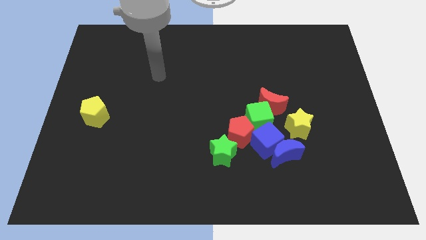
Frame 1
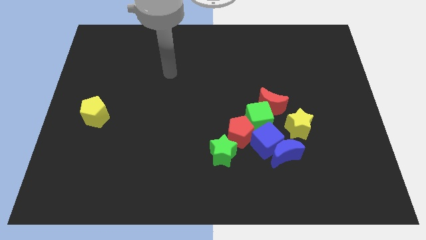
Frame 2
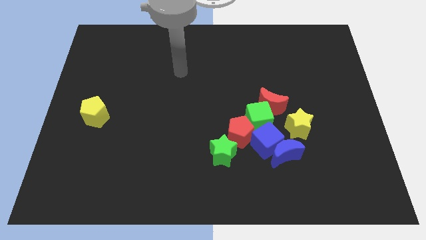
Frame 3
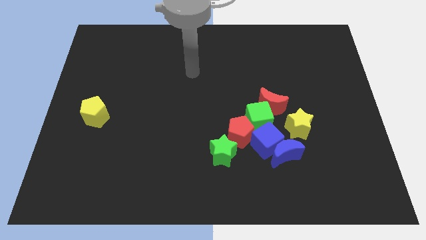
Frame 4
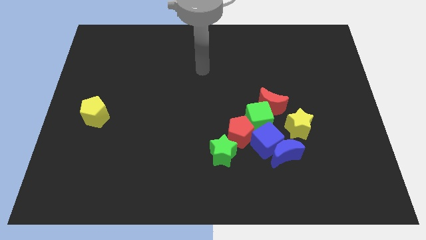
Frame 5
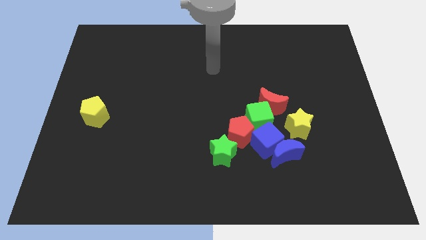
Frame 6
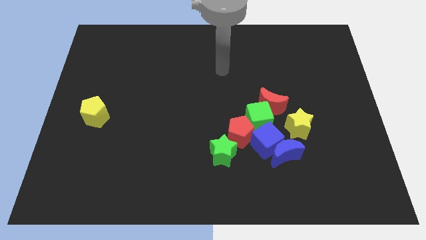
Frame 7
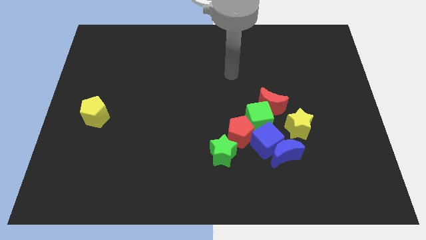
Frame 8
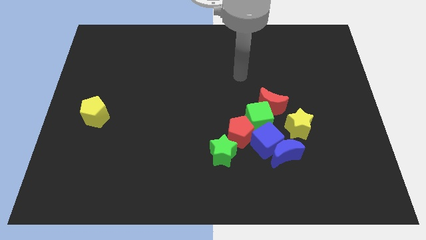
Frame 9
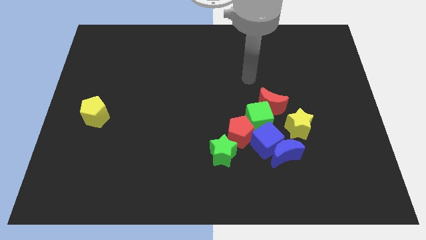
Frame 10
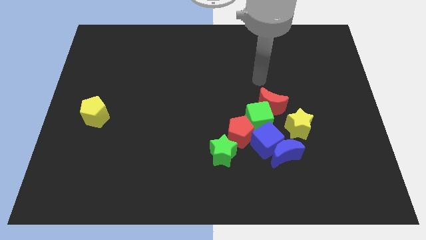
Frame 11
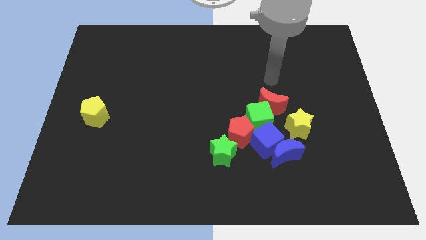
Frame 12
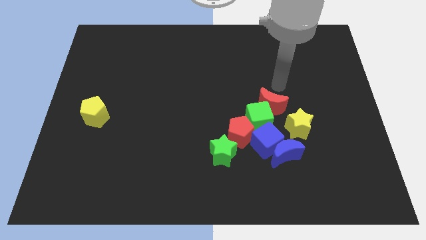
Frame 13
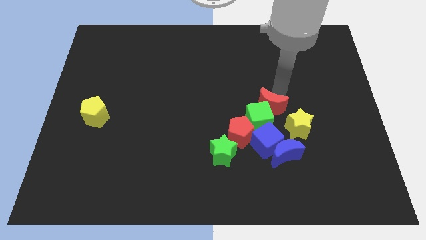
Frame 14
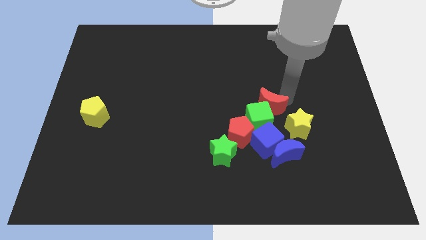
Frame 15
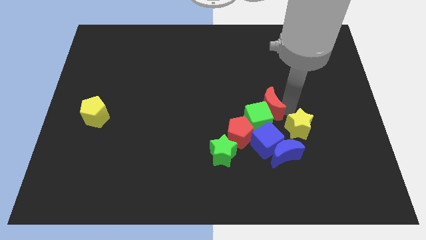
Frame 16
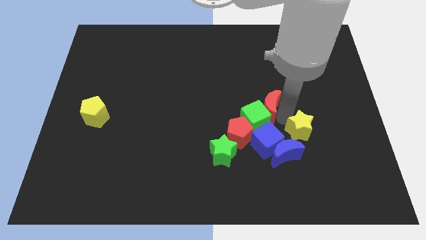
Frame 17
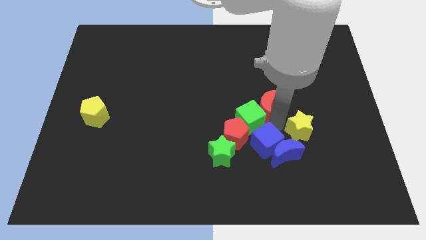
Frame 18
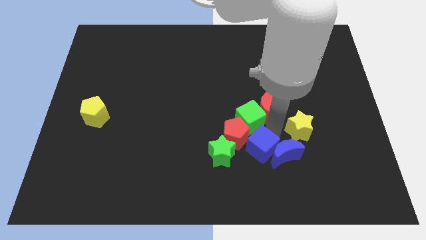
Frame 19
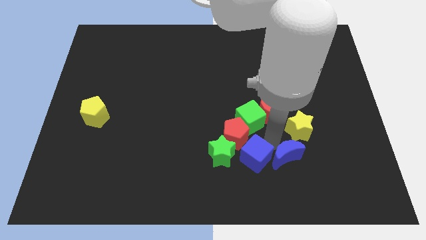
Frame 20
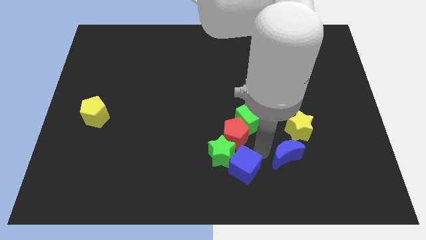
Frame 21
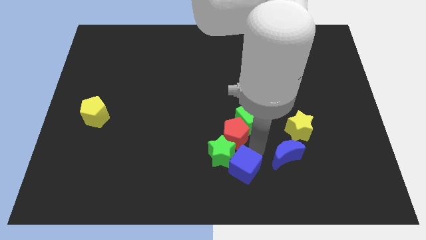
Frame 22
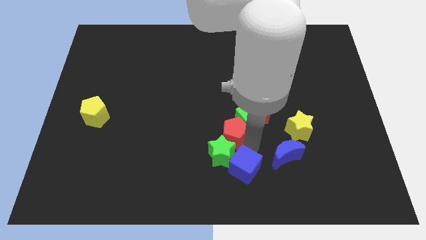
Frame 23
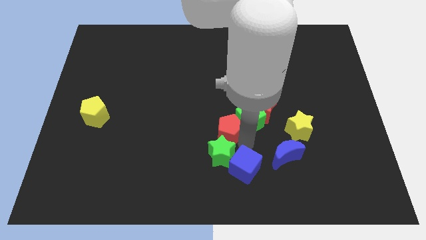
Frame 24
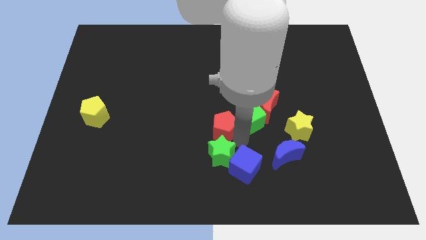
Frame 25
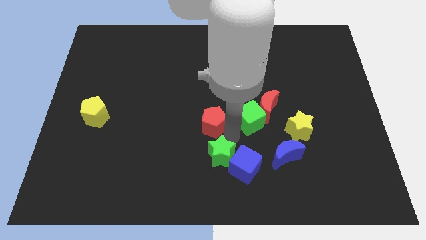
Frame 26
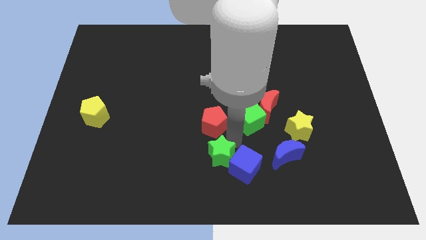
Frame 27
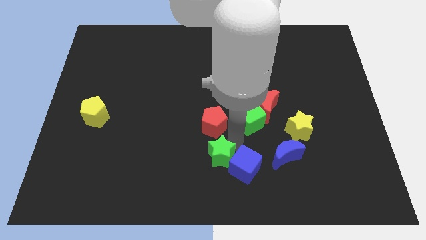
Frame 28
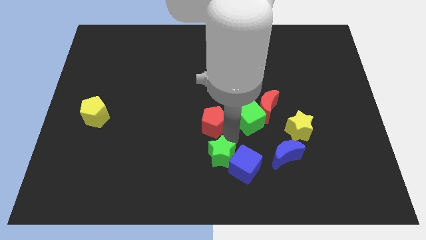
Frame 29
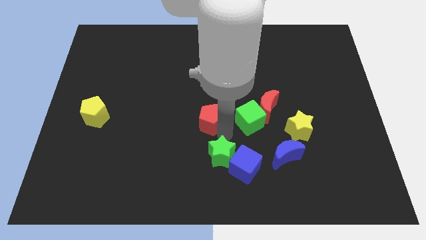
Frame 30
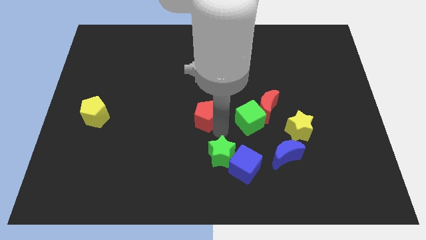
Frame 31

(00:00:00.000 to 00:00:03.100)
move the red pentagon away from the group of blocks

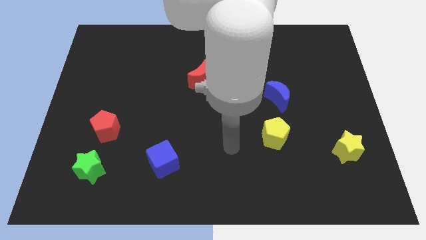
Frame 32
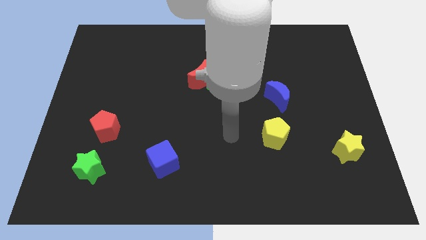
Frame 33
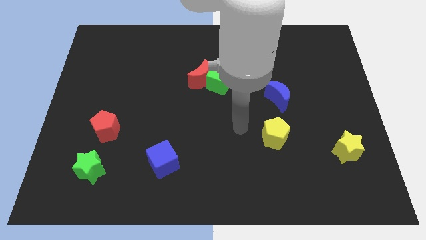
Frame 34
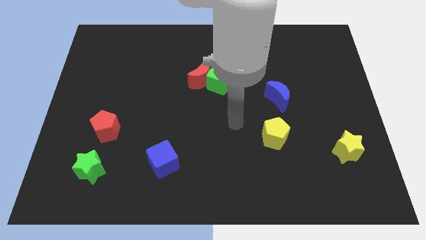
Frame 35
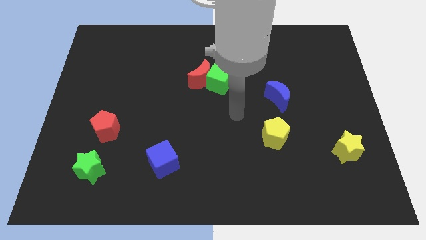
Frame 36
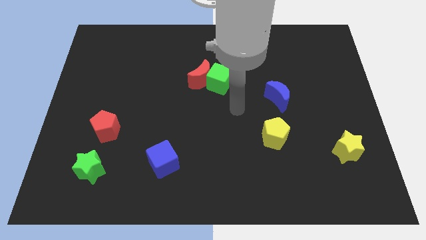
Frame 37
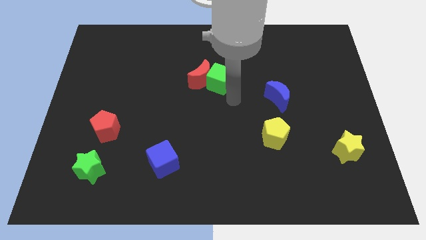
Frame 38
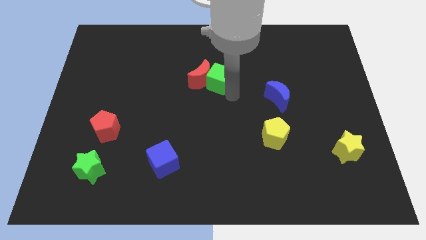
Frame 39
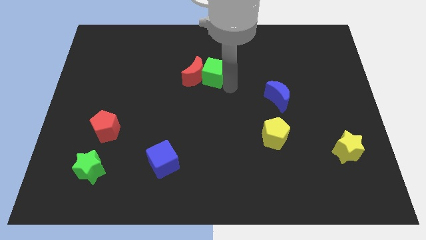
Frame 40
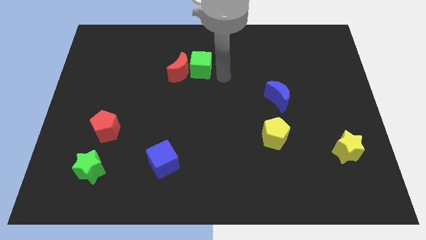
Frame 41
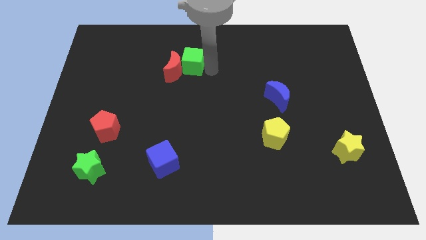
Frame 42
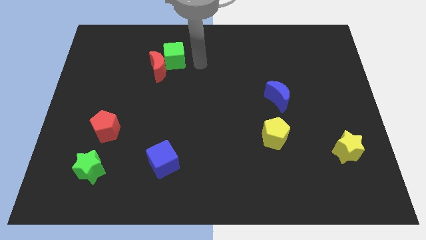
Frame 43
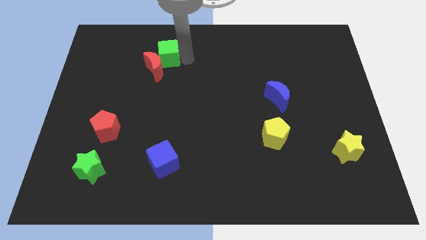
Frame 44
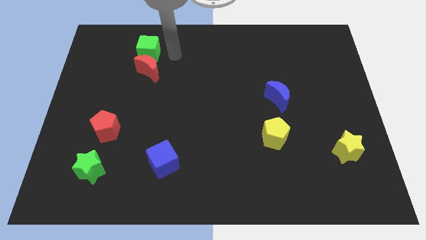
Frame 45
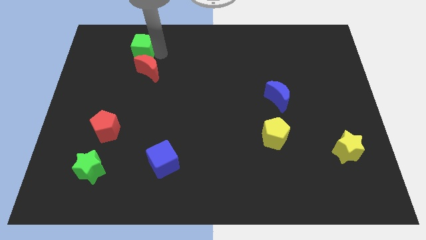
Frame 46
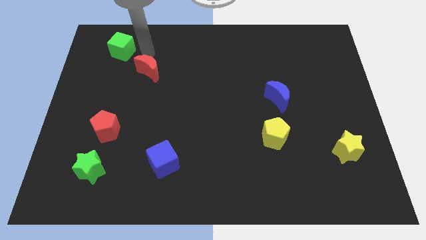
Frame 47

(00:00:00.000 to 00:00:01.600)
separate the red moon from the green cube

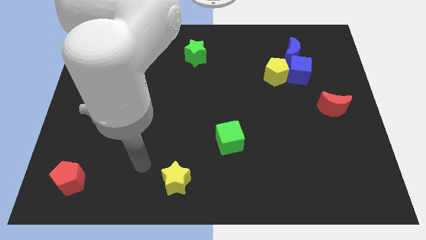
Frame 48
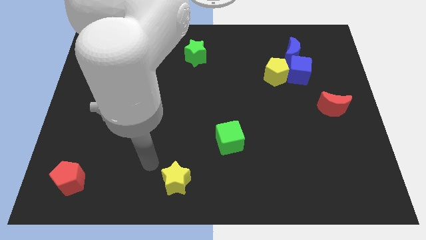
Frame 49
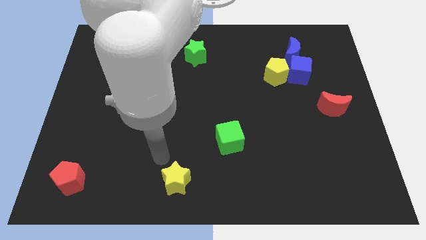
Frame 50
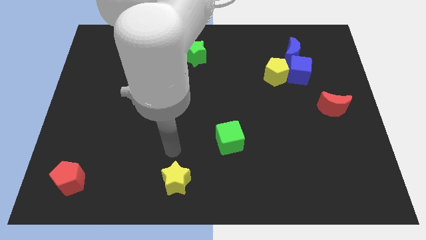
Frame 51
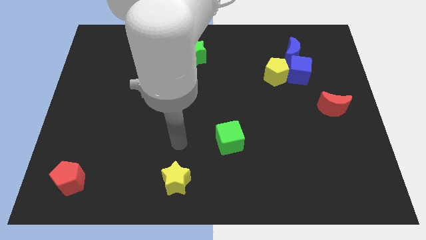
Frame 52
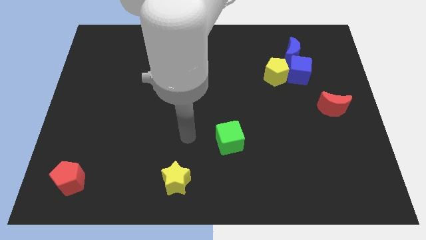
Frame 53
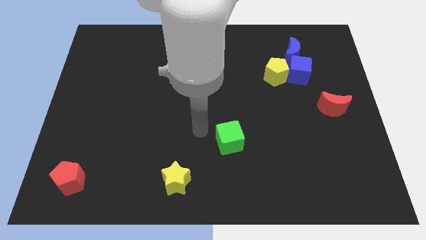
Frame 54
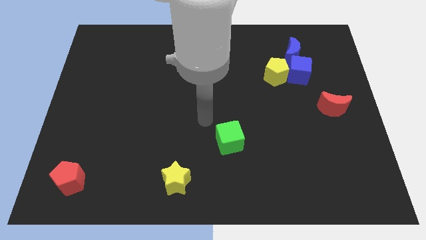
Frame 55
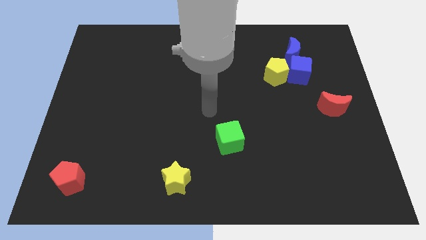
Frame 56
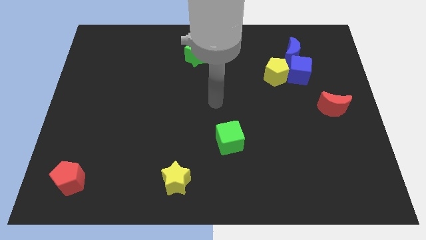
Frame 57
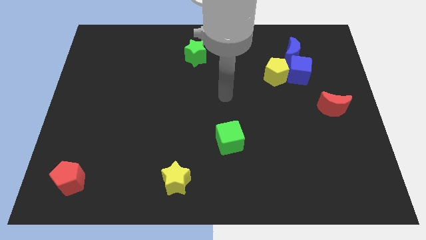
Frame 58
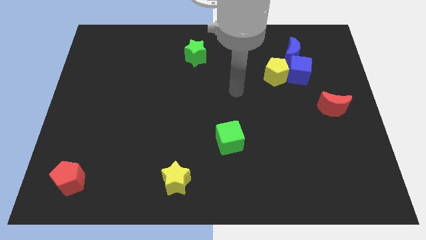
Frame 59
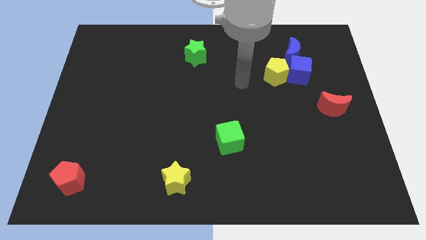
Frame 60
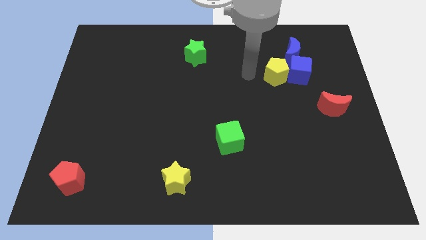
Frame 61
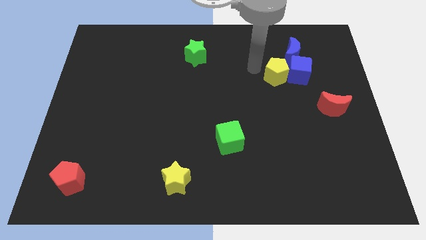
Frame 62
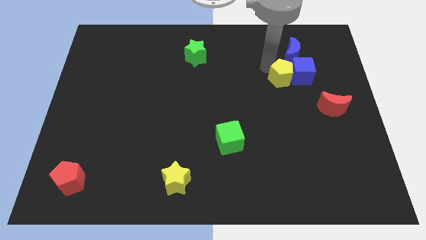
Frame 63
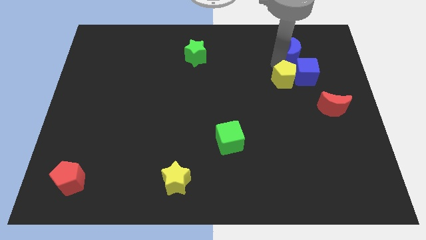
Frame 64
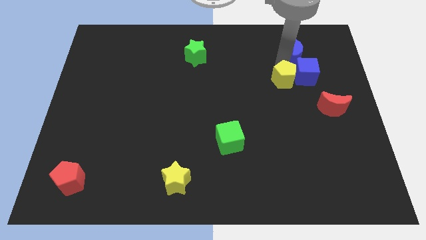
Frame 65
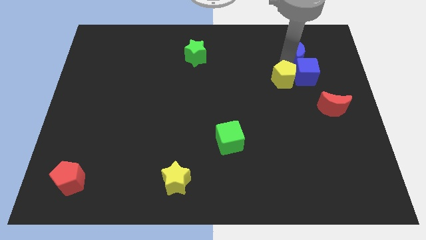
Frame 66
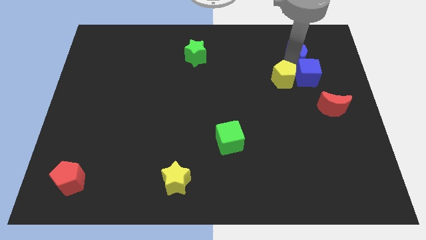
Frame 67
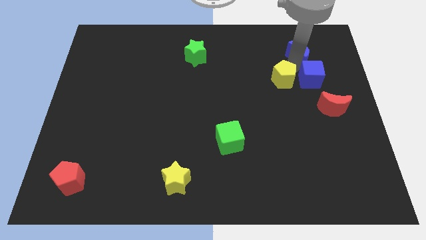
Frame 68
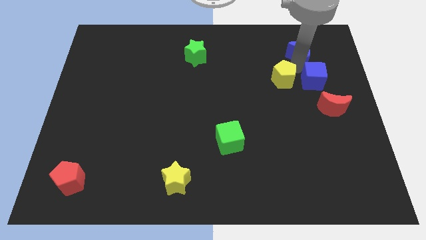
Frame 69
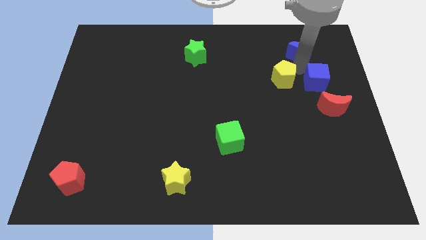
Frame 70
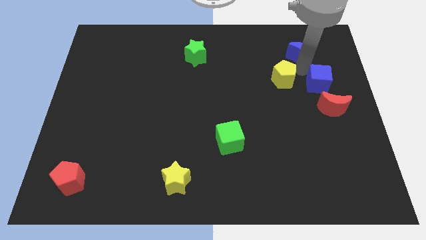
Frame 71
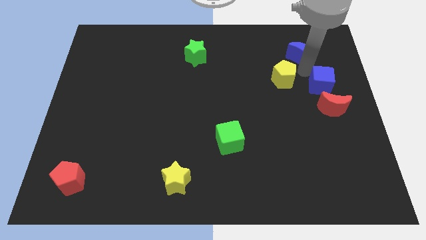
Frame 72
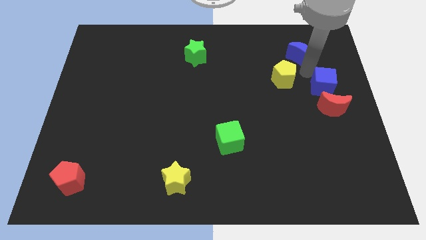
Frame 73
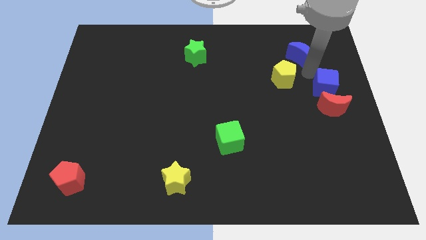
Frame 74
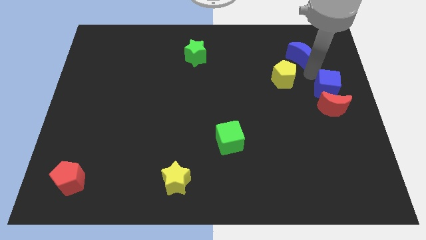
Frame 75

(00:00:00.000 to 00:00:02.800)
pull the blue cube apart from the yellow pentagon and blue moon

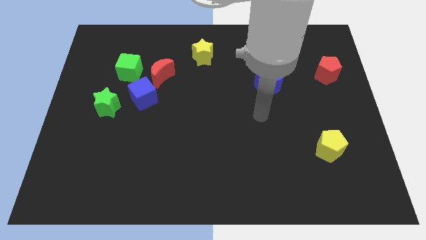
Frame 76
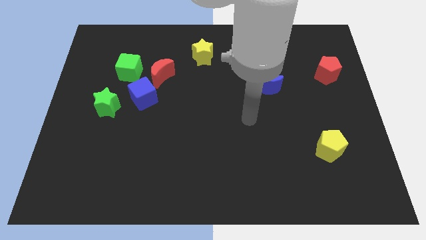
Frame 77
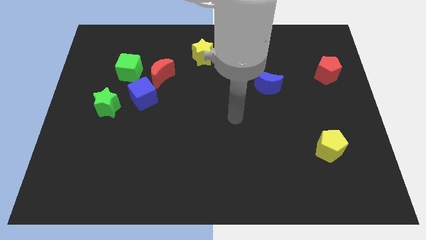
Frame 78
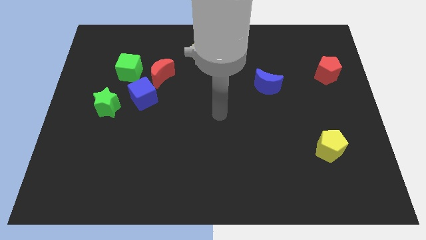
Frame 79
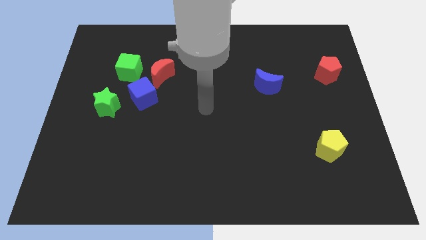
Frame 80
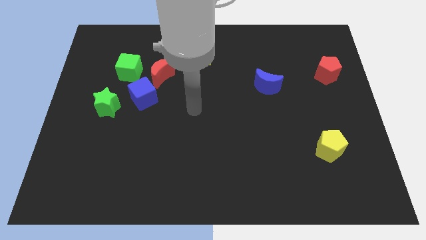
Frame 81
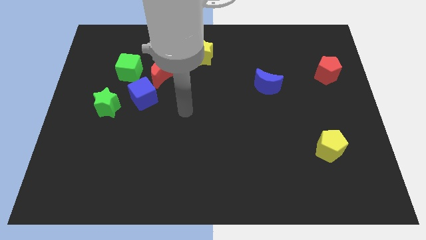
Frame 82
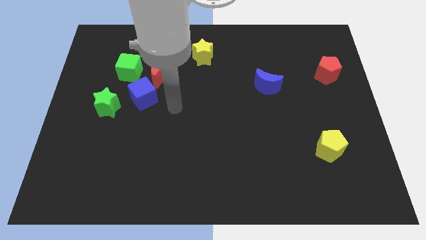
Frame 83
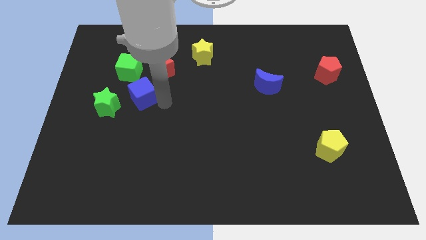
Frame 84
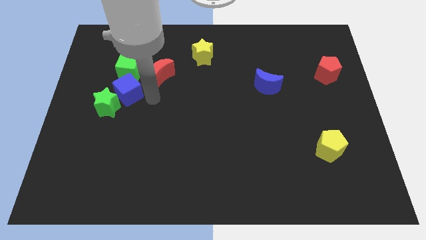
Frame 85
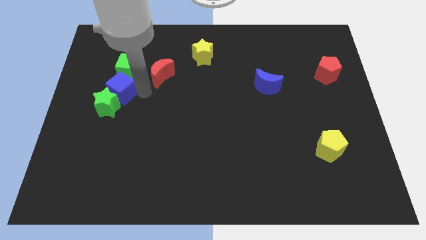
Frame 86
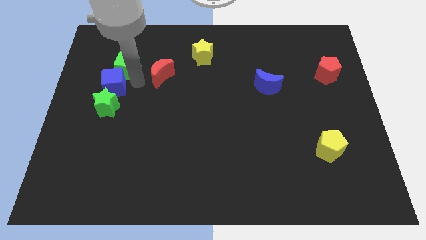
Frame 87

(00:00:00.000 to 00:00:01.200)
pull the red moon apart from the blue cube and green cube

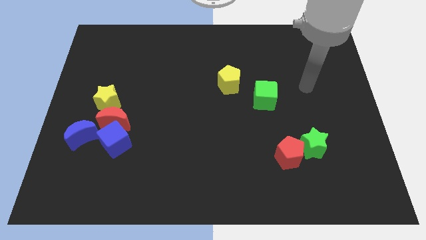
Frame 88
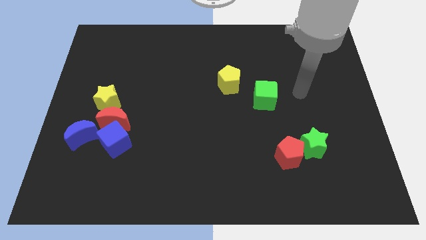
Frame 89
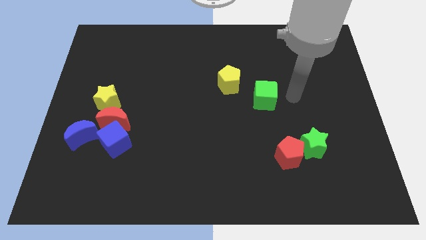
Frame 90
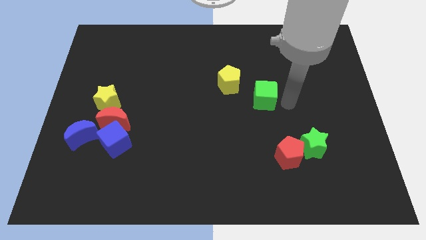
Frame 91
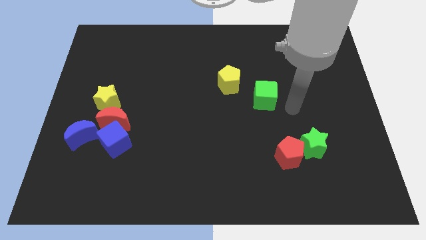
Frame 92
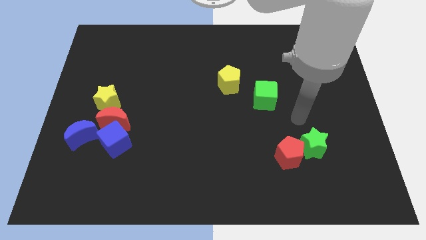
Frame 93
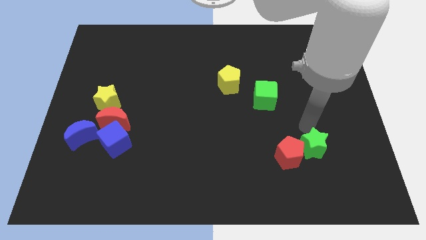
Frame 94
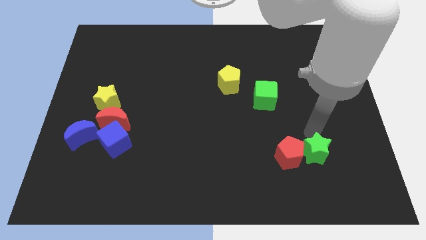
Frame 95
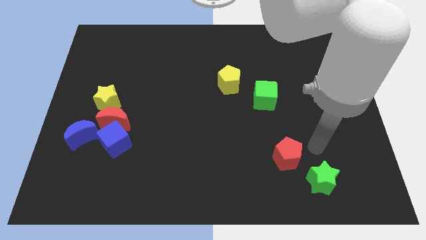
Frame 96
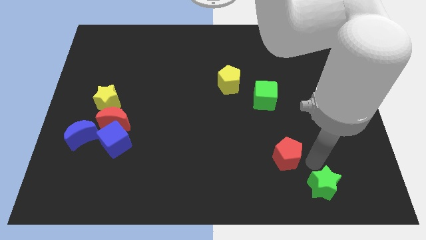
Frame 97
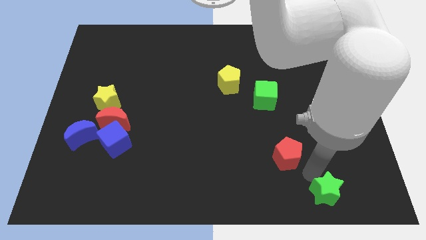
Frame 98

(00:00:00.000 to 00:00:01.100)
separate the red pentagon from the green star
